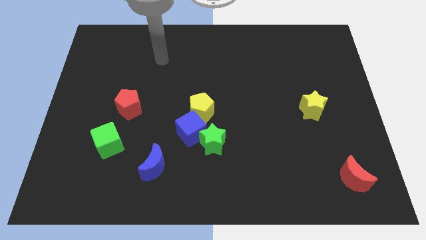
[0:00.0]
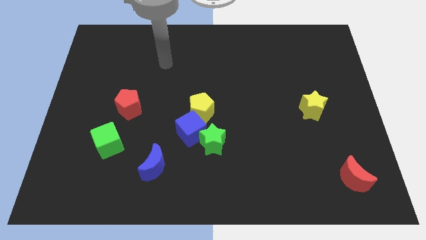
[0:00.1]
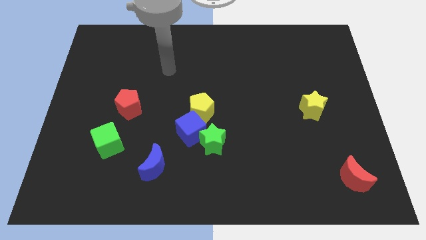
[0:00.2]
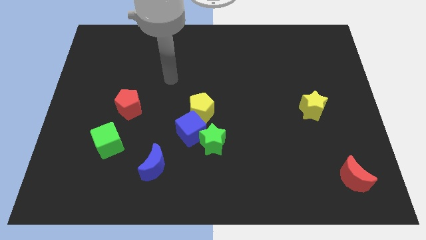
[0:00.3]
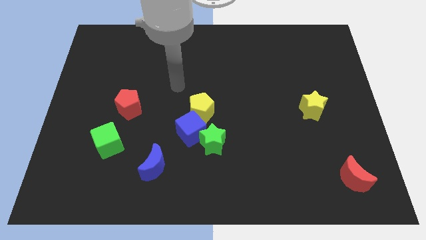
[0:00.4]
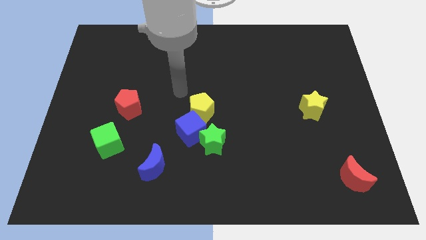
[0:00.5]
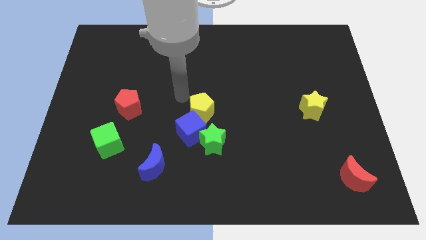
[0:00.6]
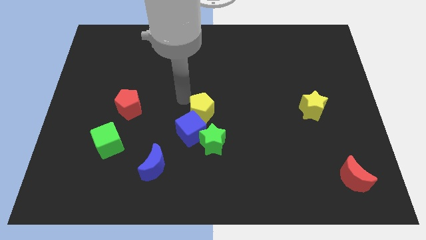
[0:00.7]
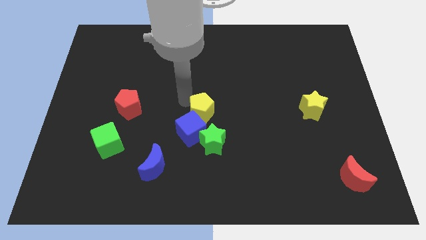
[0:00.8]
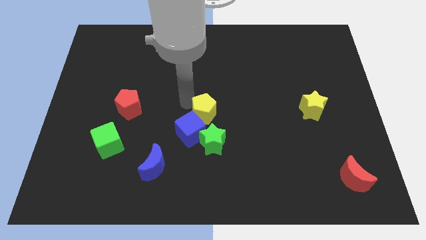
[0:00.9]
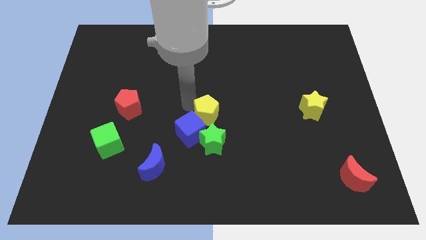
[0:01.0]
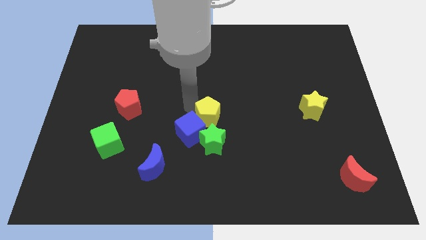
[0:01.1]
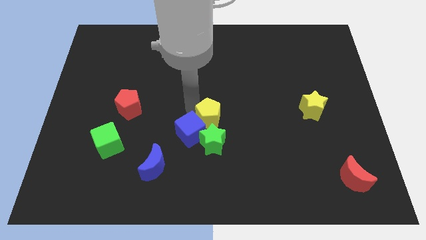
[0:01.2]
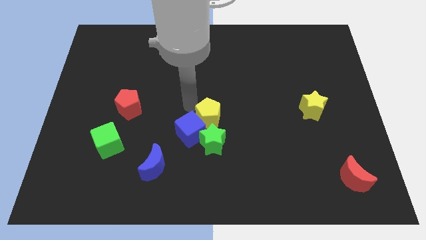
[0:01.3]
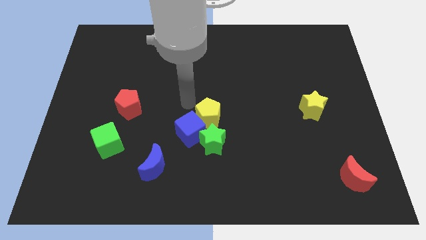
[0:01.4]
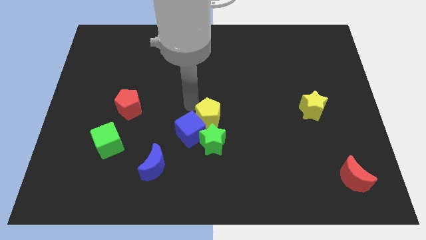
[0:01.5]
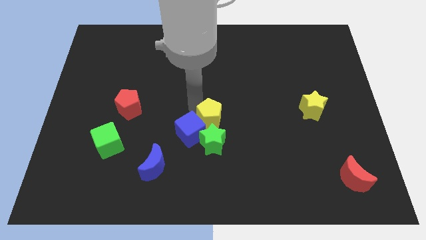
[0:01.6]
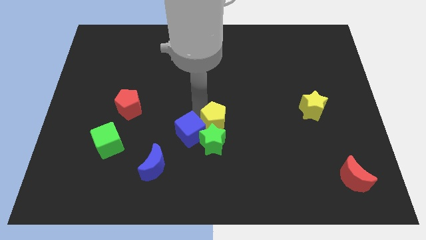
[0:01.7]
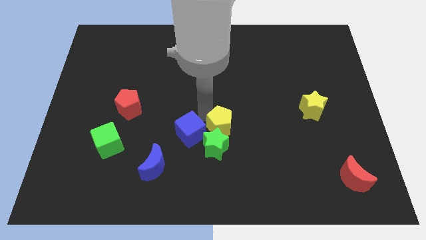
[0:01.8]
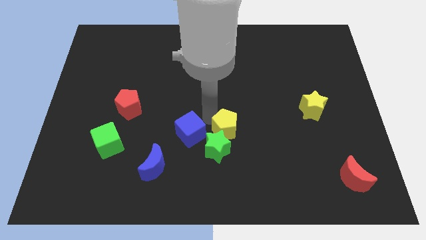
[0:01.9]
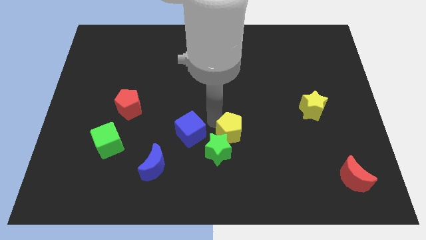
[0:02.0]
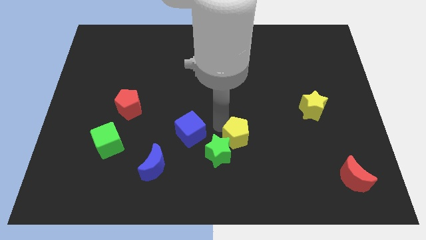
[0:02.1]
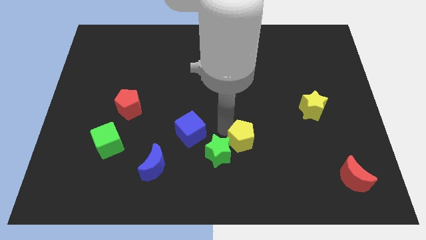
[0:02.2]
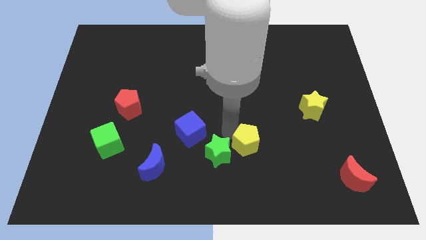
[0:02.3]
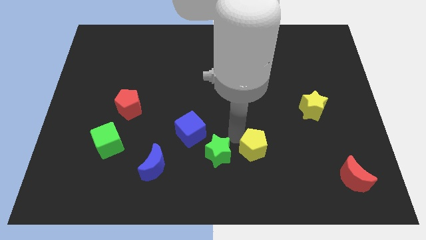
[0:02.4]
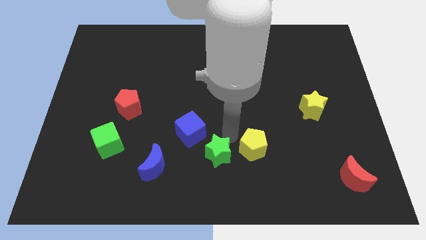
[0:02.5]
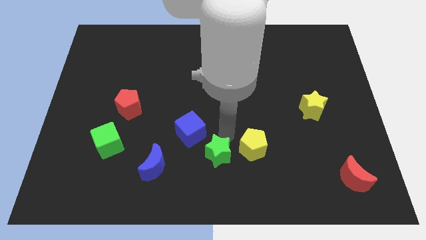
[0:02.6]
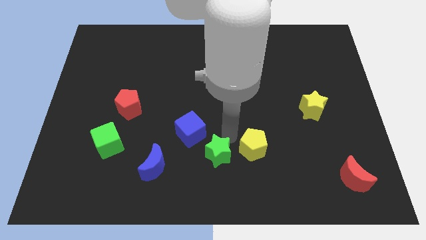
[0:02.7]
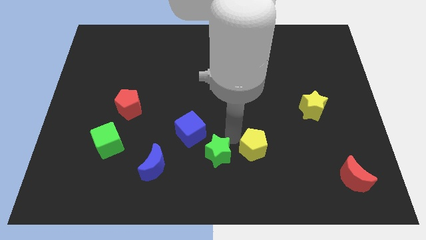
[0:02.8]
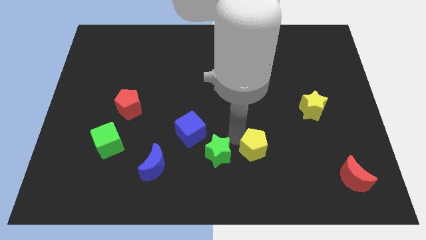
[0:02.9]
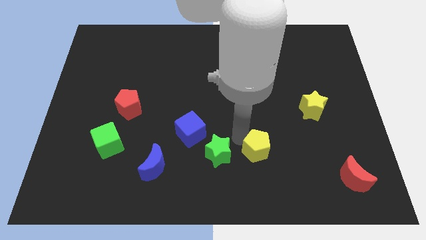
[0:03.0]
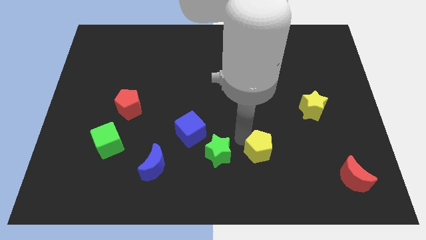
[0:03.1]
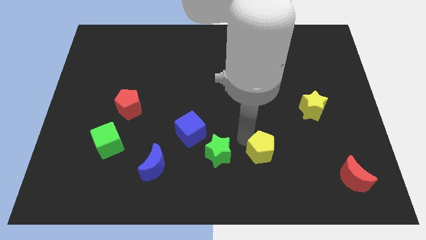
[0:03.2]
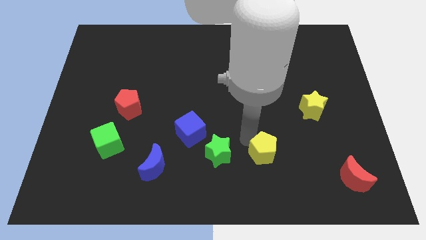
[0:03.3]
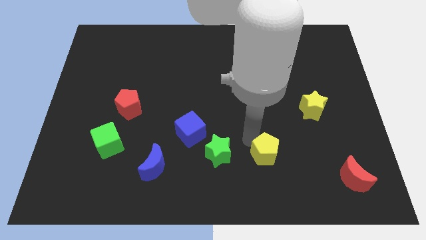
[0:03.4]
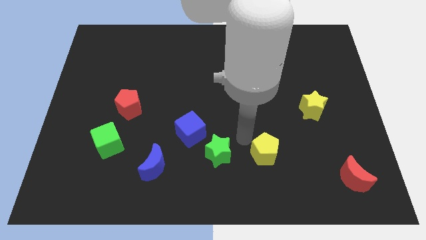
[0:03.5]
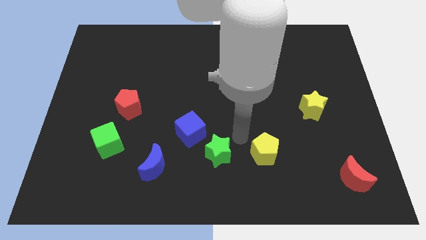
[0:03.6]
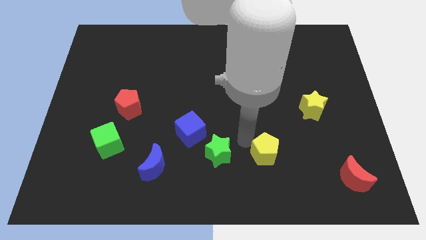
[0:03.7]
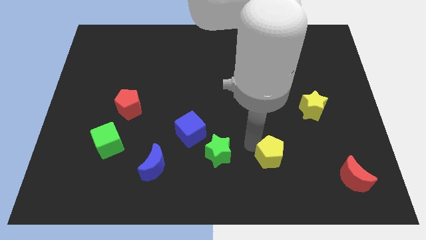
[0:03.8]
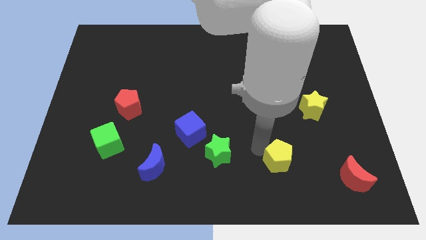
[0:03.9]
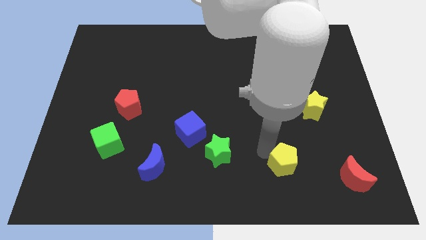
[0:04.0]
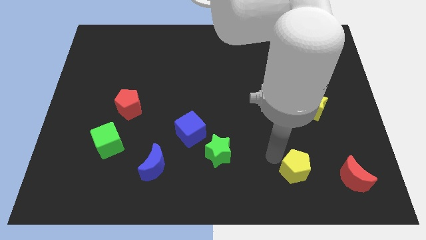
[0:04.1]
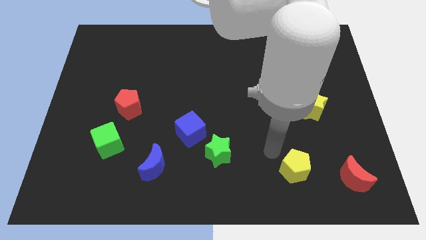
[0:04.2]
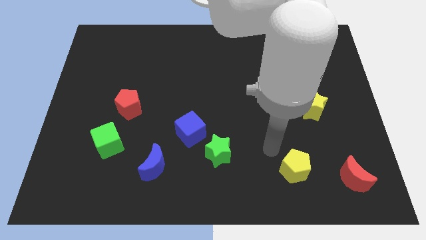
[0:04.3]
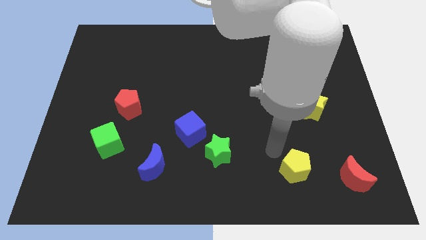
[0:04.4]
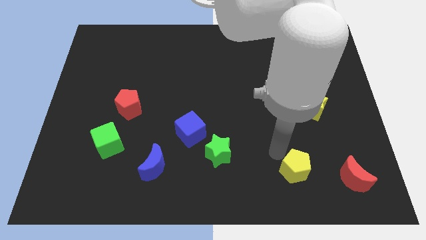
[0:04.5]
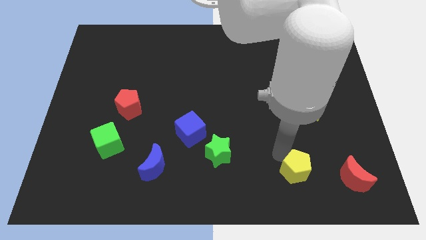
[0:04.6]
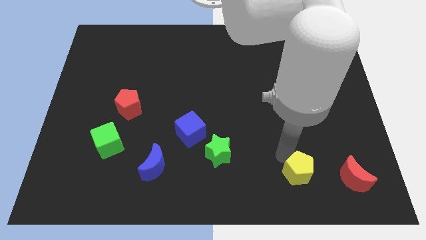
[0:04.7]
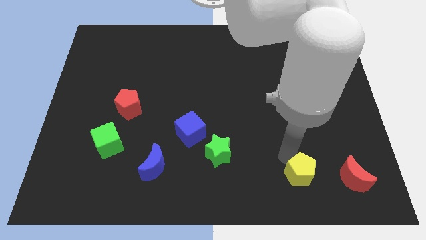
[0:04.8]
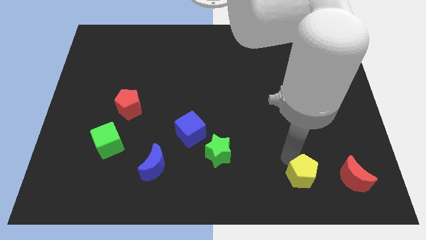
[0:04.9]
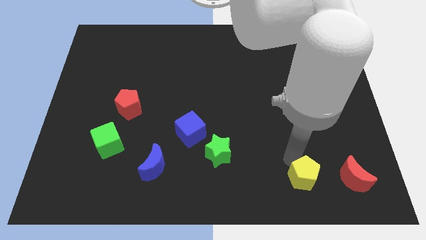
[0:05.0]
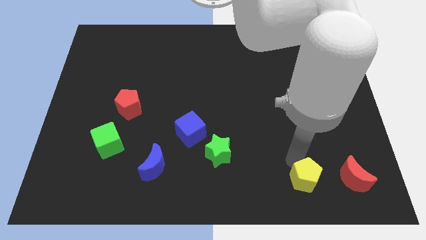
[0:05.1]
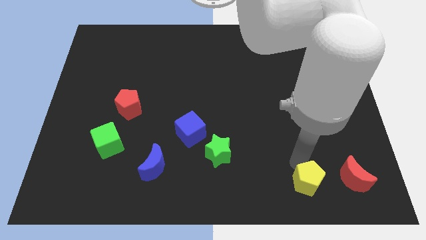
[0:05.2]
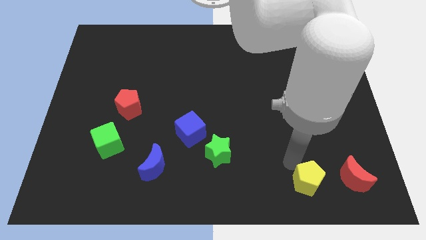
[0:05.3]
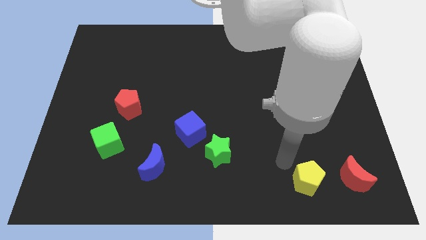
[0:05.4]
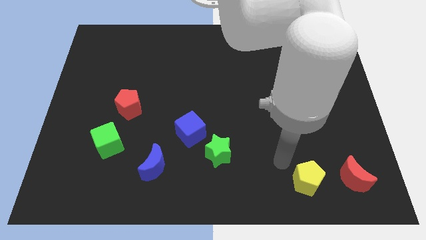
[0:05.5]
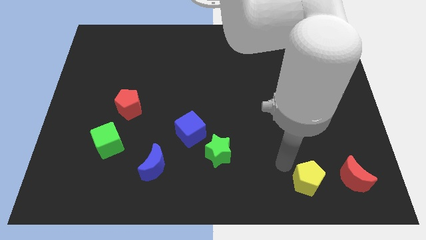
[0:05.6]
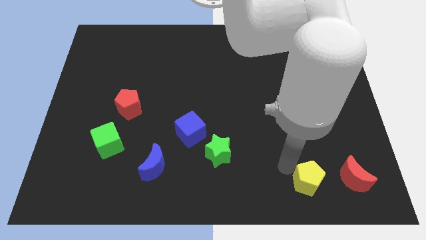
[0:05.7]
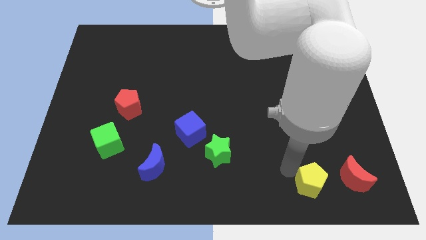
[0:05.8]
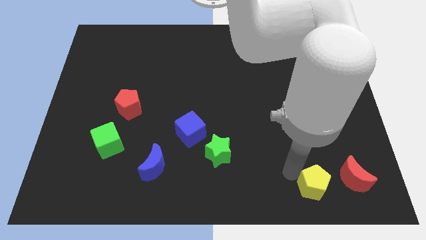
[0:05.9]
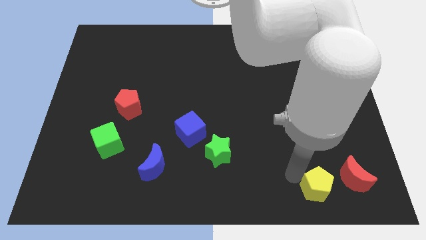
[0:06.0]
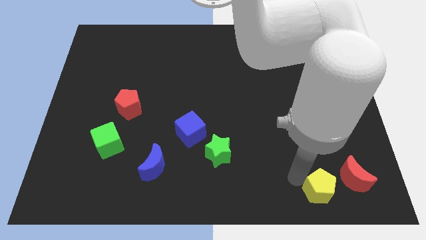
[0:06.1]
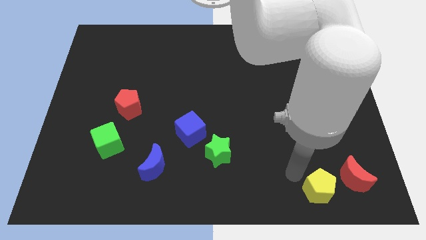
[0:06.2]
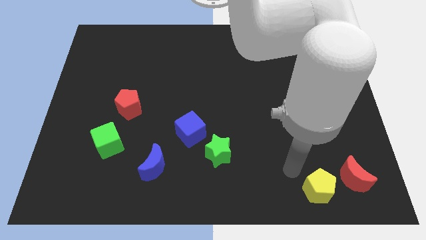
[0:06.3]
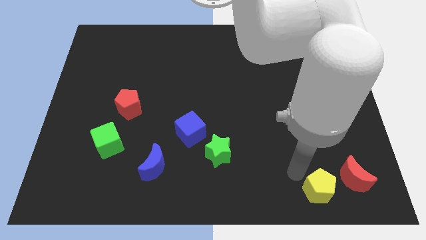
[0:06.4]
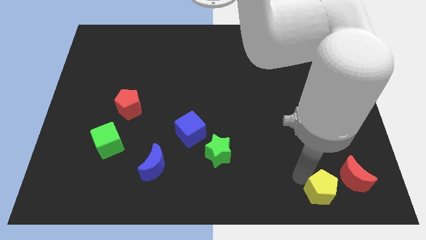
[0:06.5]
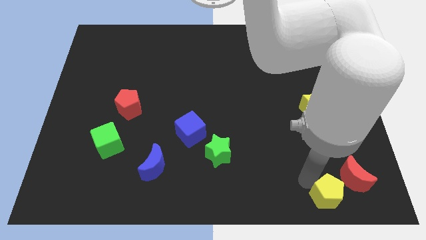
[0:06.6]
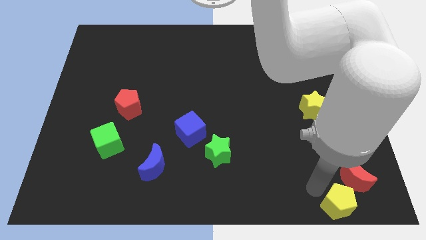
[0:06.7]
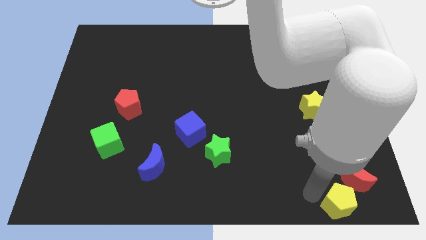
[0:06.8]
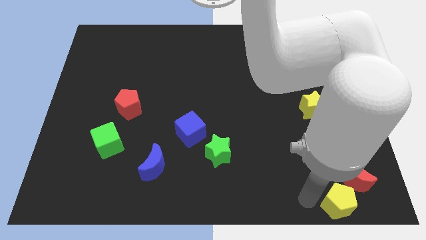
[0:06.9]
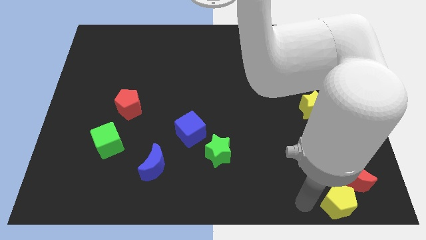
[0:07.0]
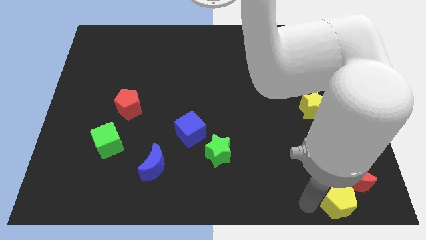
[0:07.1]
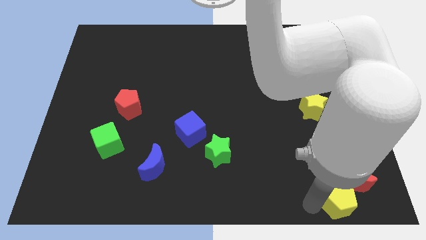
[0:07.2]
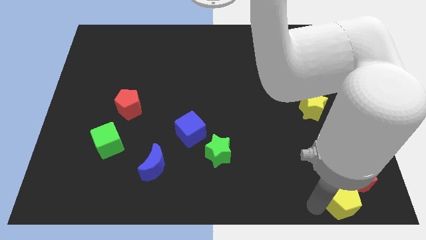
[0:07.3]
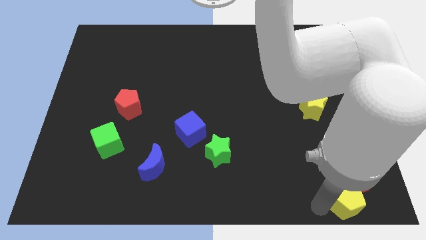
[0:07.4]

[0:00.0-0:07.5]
move the yellow pentagon to the bottom right of the board
